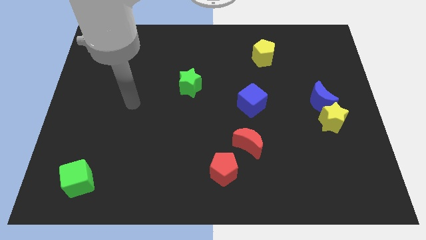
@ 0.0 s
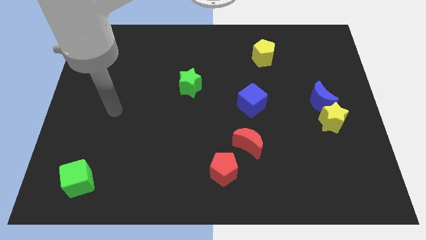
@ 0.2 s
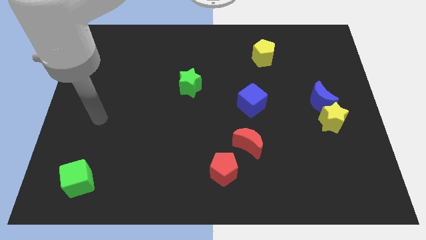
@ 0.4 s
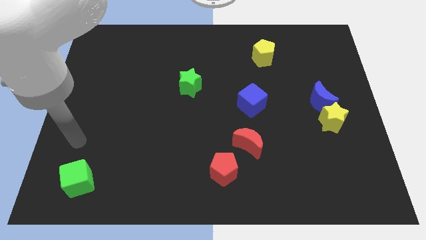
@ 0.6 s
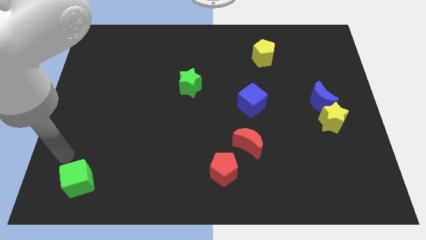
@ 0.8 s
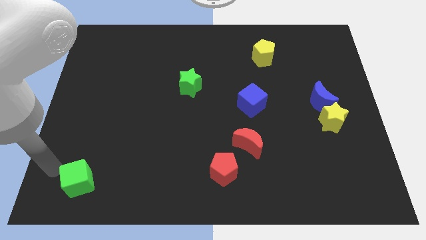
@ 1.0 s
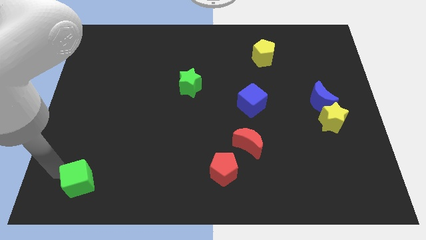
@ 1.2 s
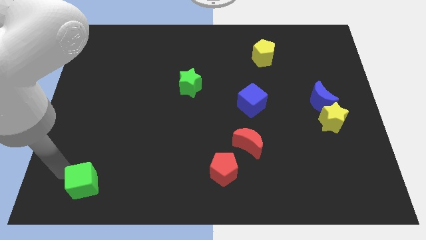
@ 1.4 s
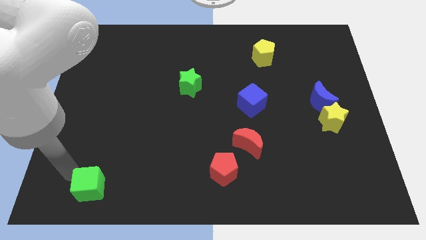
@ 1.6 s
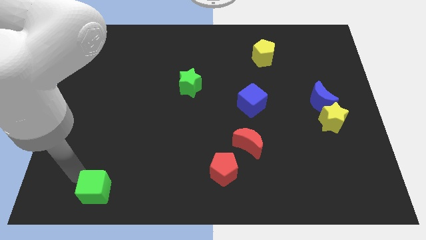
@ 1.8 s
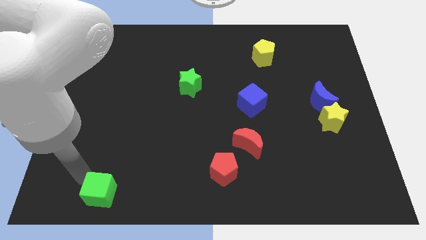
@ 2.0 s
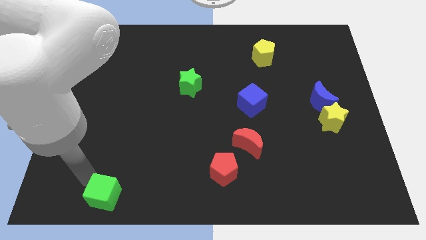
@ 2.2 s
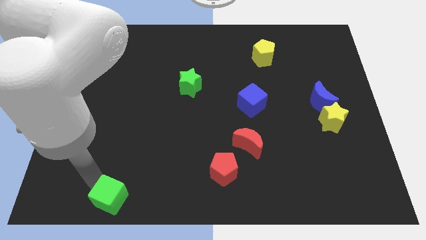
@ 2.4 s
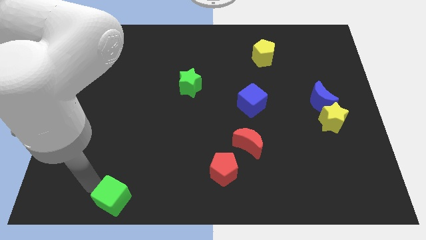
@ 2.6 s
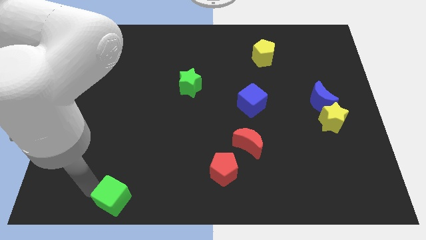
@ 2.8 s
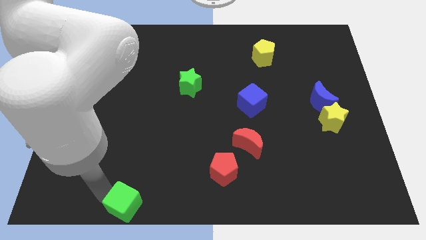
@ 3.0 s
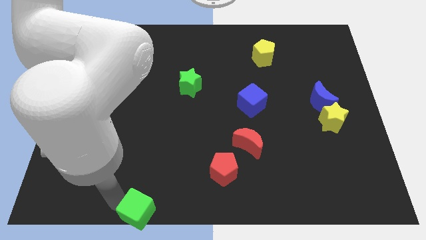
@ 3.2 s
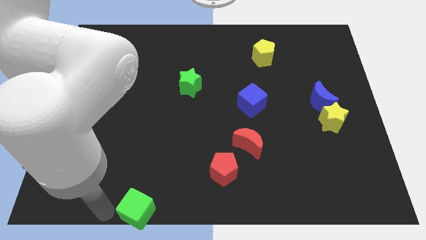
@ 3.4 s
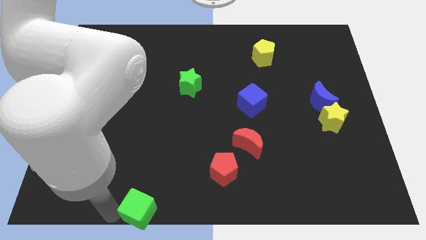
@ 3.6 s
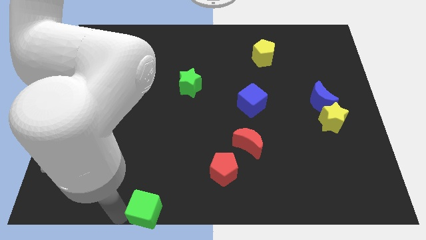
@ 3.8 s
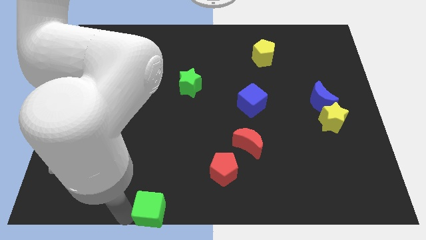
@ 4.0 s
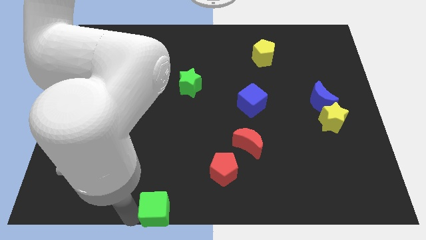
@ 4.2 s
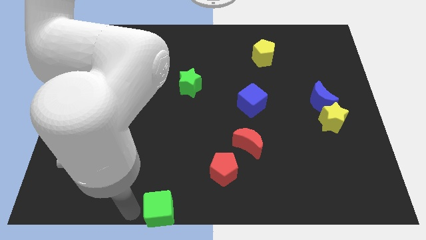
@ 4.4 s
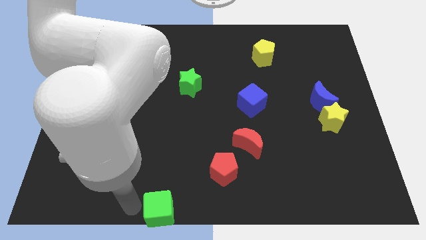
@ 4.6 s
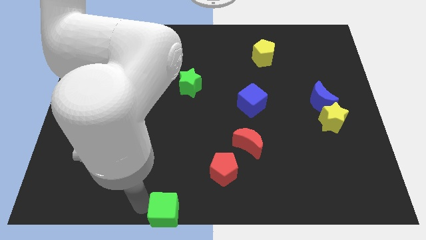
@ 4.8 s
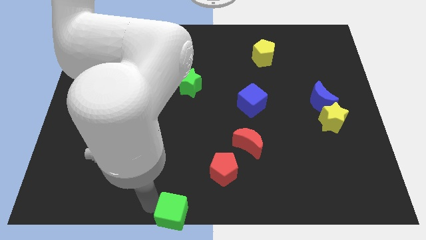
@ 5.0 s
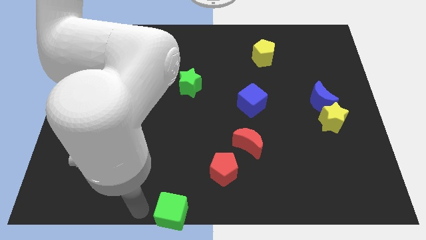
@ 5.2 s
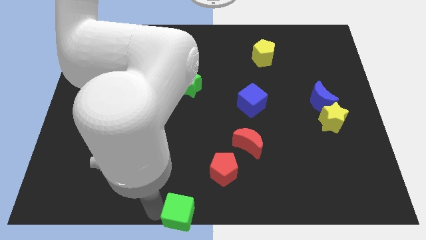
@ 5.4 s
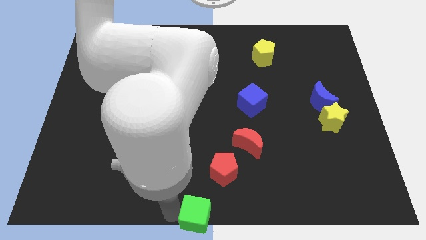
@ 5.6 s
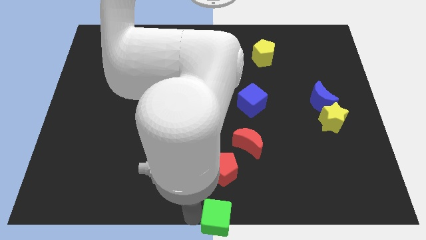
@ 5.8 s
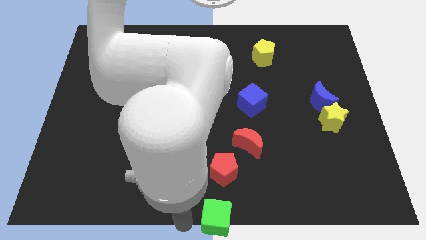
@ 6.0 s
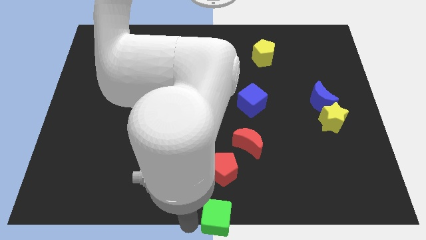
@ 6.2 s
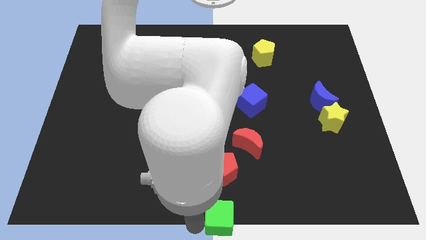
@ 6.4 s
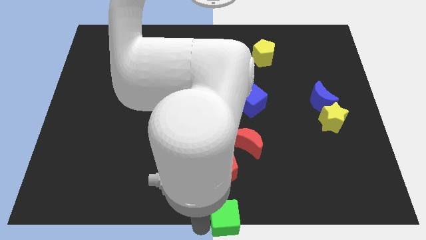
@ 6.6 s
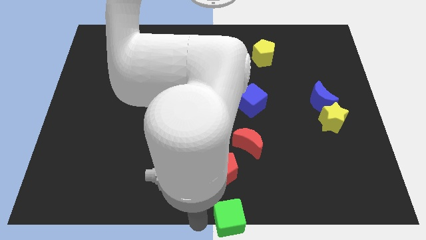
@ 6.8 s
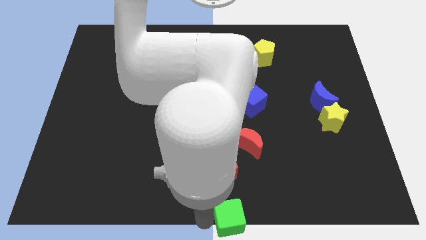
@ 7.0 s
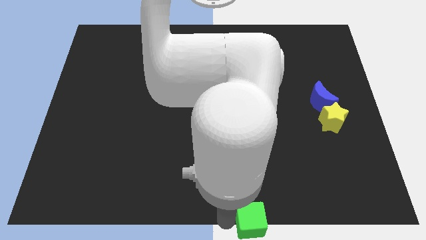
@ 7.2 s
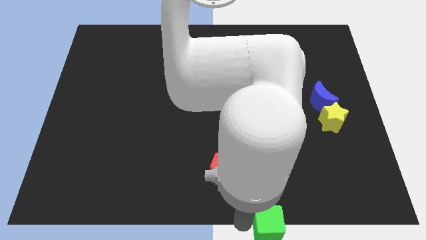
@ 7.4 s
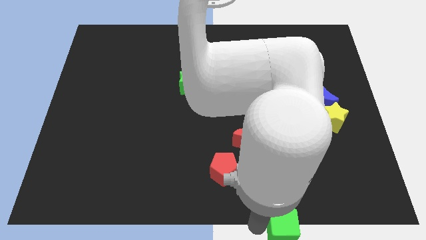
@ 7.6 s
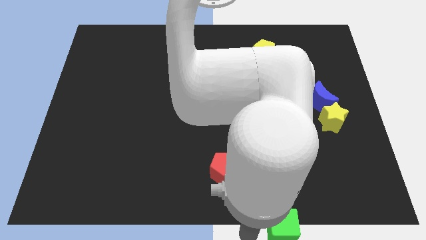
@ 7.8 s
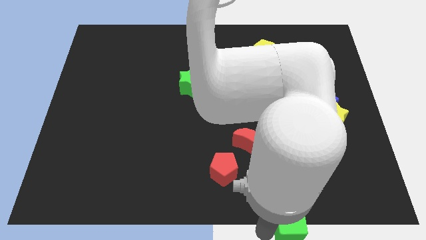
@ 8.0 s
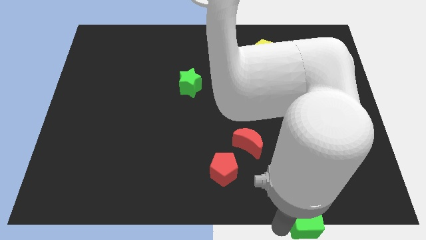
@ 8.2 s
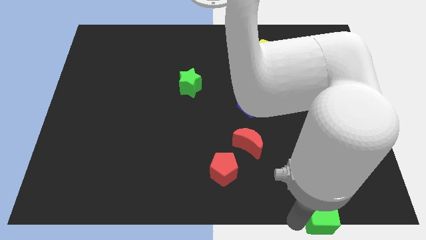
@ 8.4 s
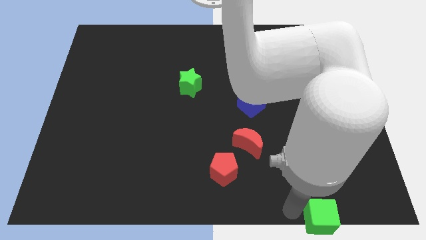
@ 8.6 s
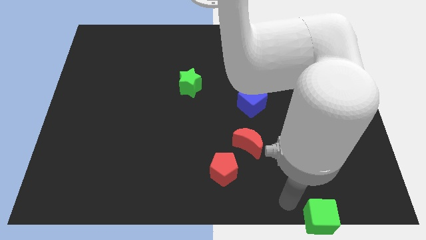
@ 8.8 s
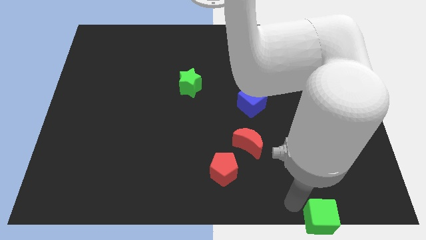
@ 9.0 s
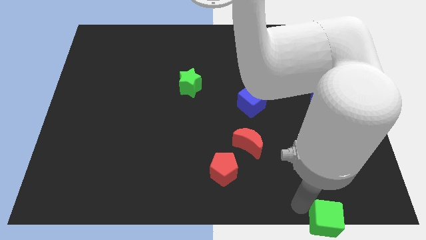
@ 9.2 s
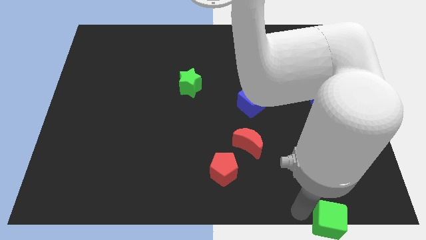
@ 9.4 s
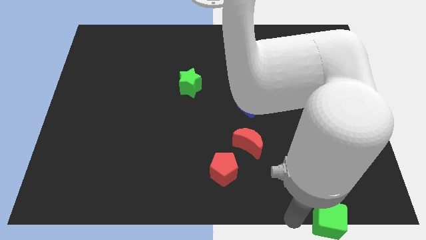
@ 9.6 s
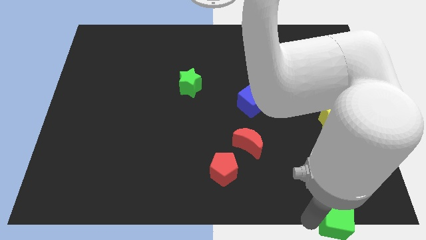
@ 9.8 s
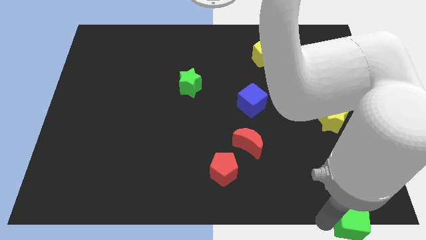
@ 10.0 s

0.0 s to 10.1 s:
put the green cube to the bottom right of the board

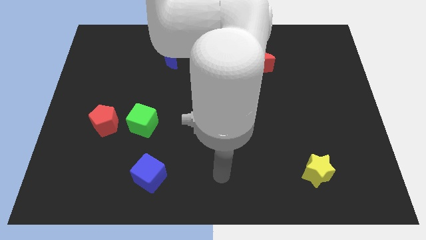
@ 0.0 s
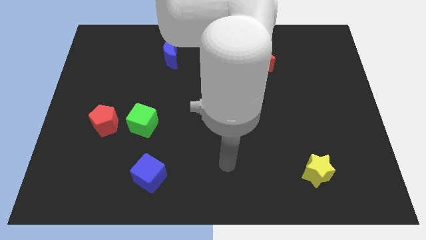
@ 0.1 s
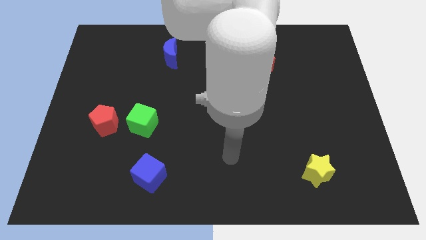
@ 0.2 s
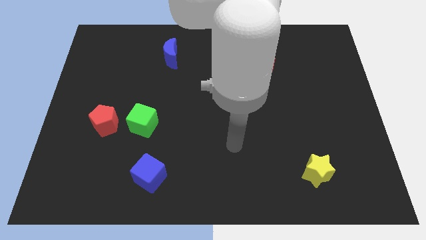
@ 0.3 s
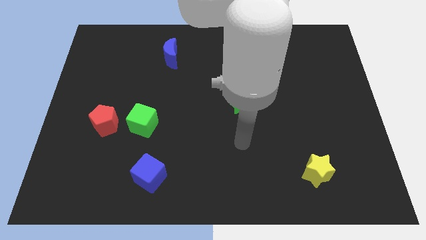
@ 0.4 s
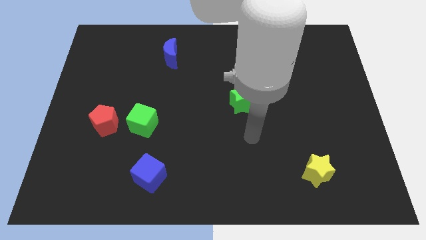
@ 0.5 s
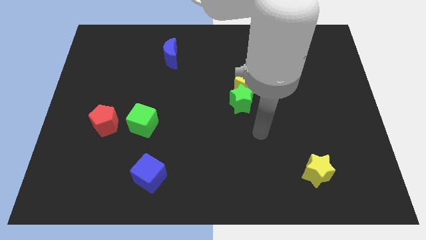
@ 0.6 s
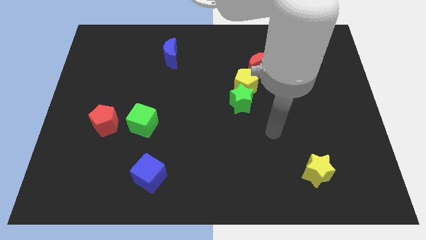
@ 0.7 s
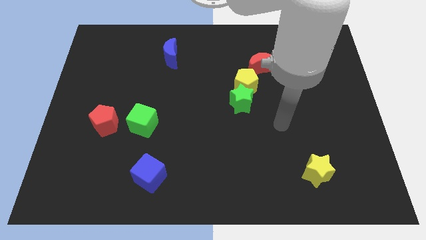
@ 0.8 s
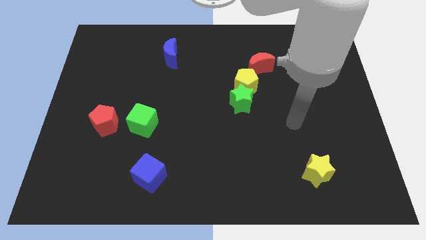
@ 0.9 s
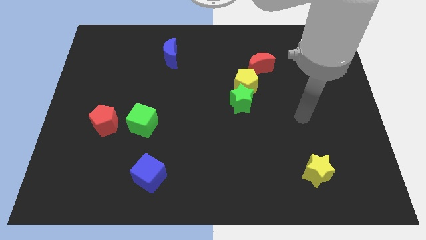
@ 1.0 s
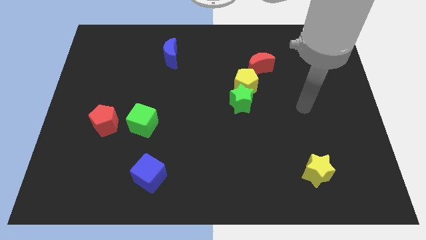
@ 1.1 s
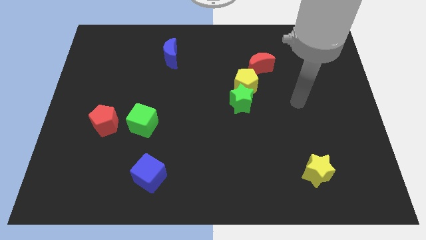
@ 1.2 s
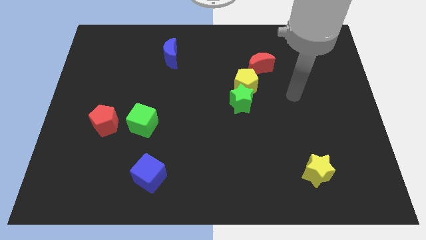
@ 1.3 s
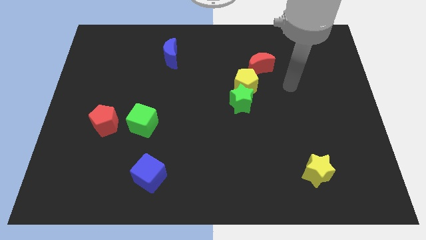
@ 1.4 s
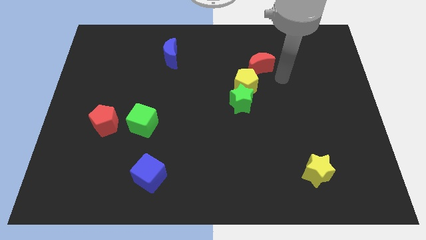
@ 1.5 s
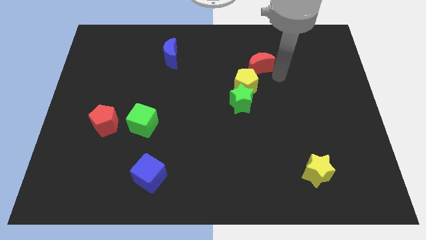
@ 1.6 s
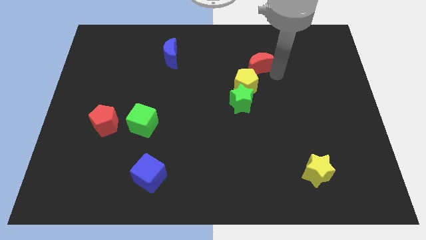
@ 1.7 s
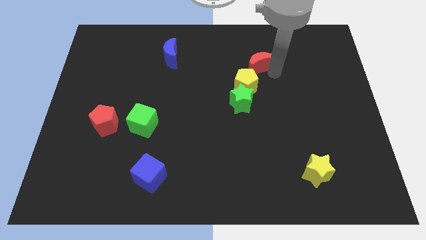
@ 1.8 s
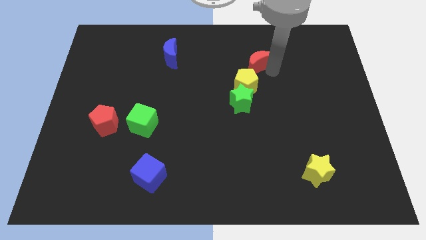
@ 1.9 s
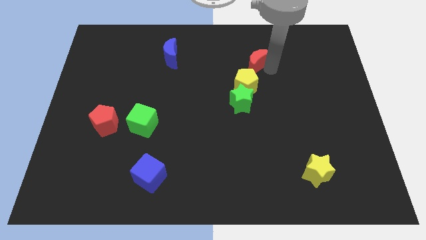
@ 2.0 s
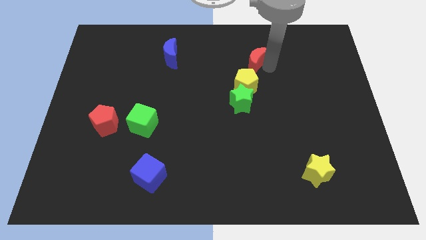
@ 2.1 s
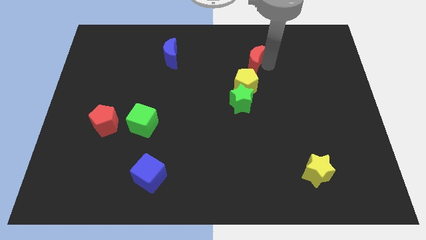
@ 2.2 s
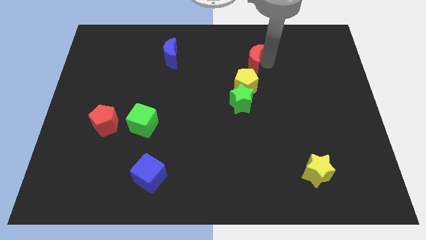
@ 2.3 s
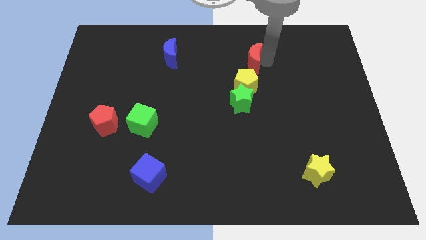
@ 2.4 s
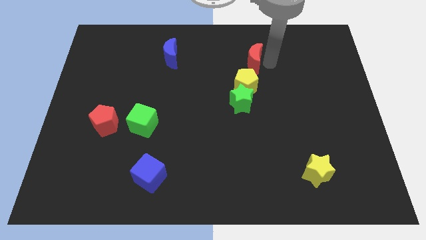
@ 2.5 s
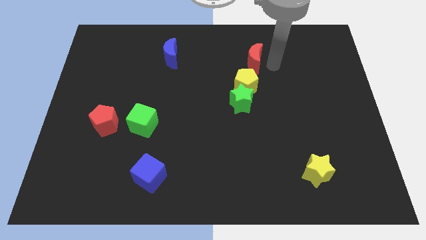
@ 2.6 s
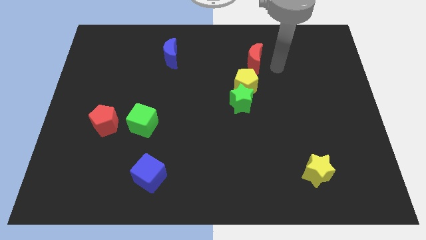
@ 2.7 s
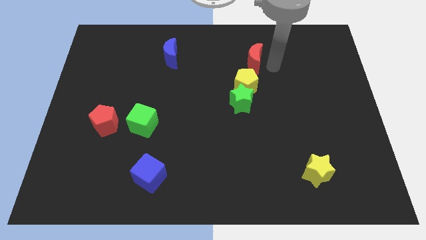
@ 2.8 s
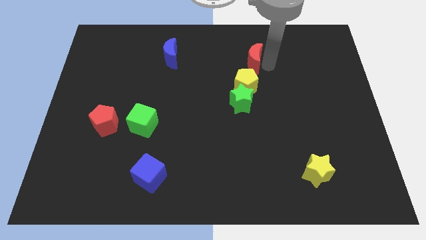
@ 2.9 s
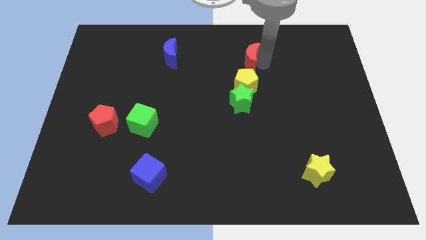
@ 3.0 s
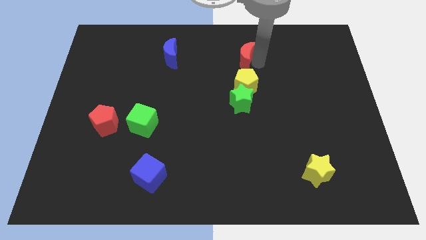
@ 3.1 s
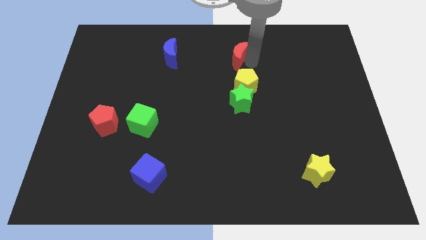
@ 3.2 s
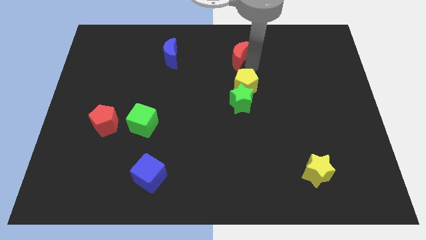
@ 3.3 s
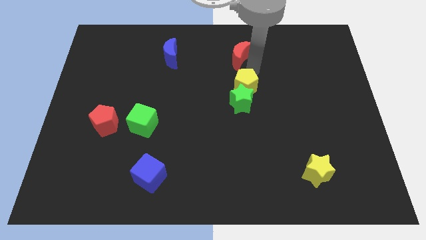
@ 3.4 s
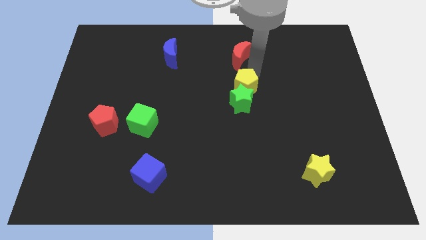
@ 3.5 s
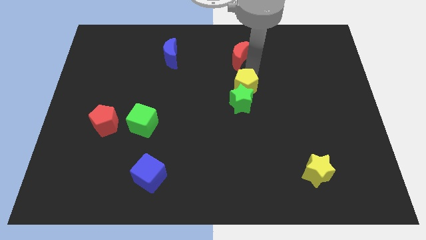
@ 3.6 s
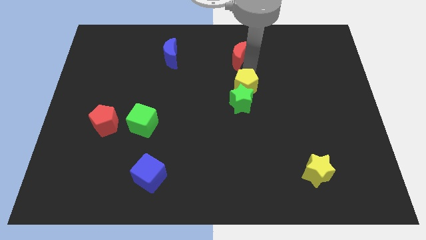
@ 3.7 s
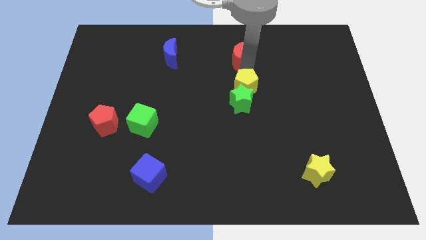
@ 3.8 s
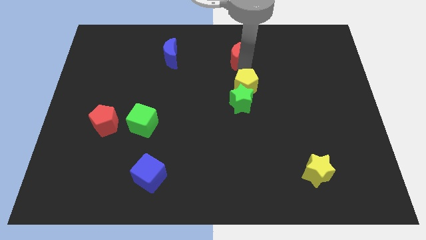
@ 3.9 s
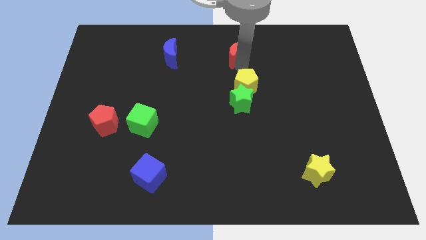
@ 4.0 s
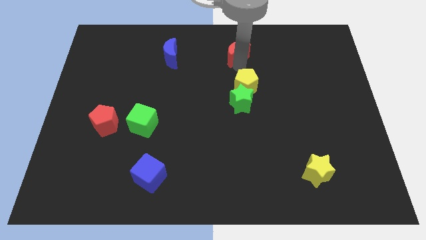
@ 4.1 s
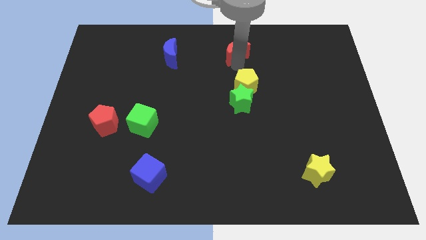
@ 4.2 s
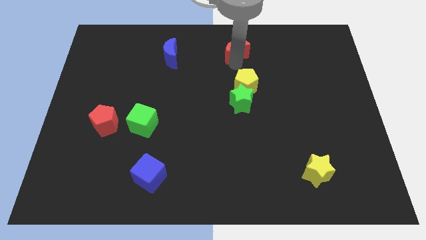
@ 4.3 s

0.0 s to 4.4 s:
slide the red moon to the top side
